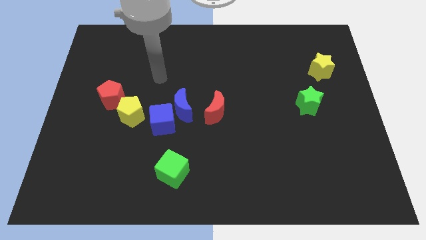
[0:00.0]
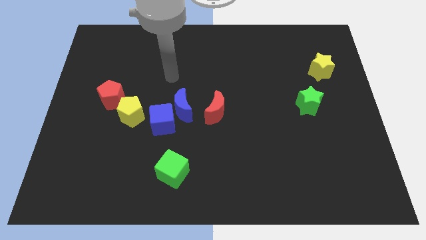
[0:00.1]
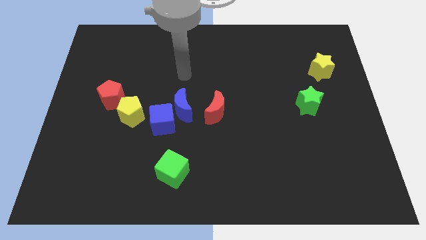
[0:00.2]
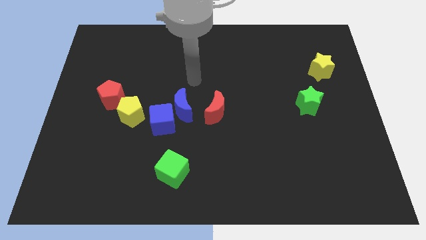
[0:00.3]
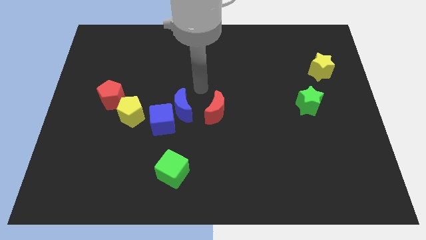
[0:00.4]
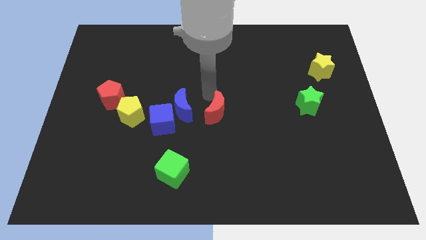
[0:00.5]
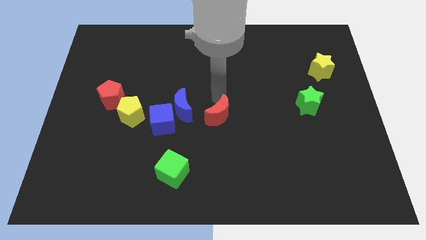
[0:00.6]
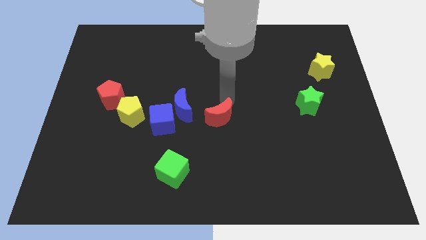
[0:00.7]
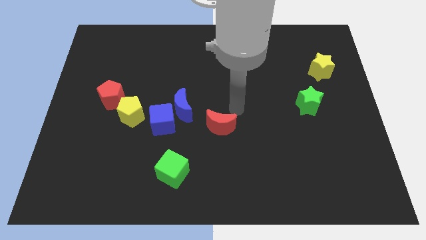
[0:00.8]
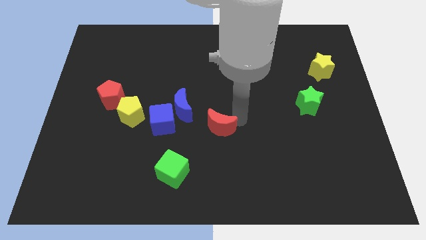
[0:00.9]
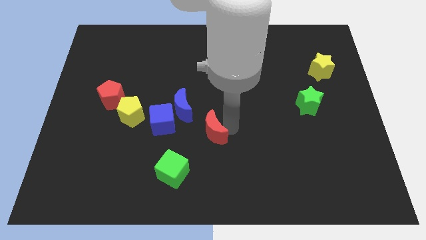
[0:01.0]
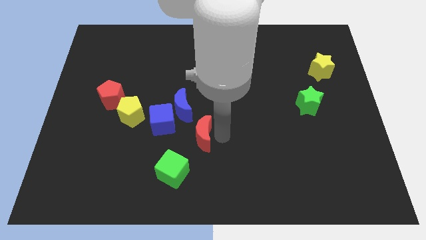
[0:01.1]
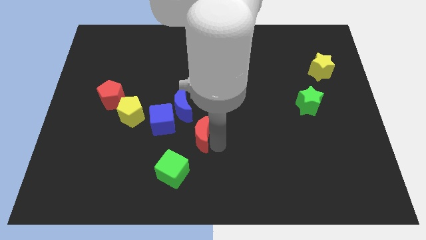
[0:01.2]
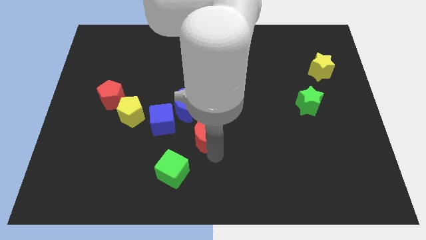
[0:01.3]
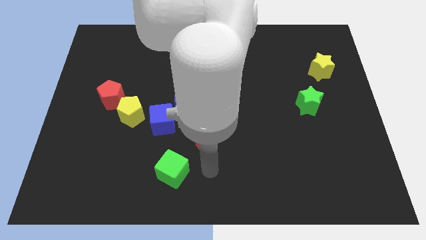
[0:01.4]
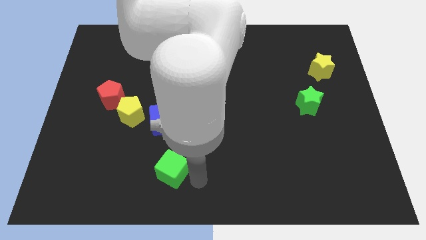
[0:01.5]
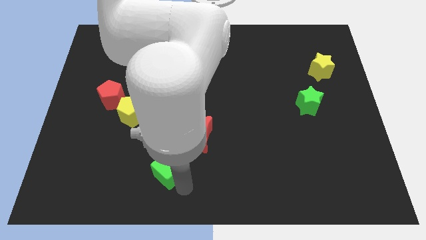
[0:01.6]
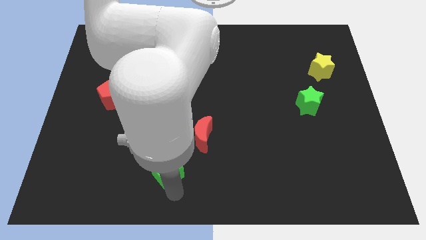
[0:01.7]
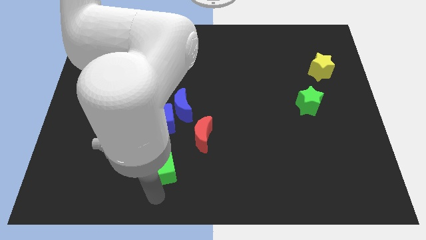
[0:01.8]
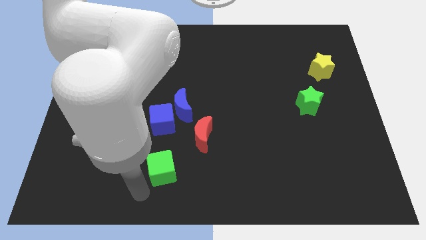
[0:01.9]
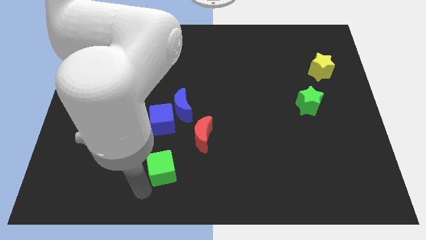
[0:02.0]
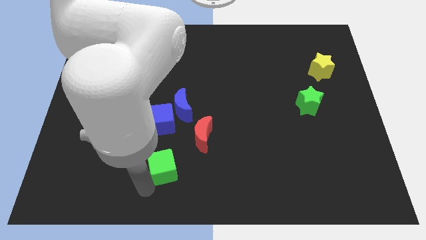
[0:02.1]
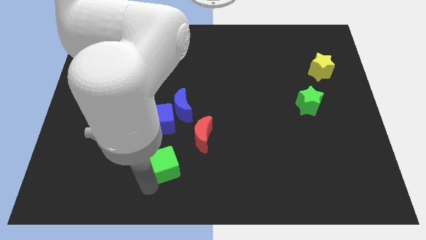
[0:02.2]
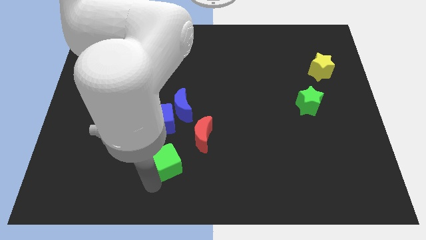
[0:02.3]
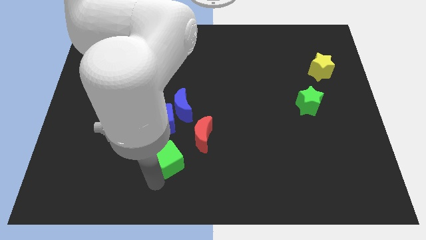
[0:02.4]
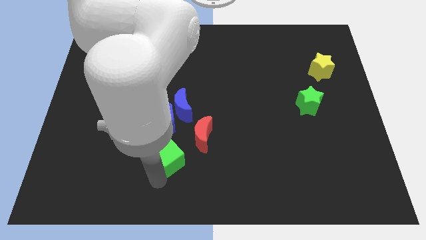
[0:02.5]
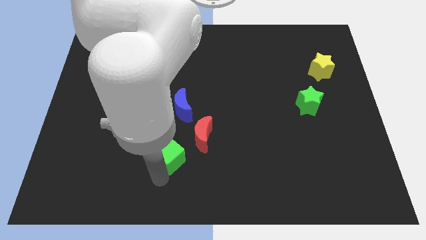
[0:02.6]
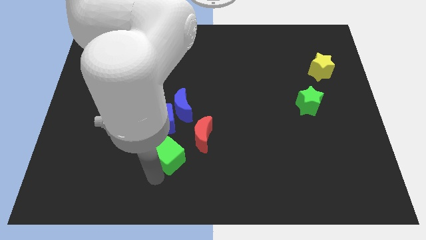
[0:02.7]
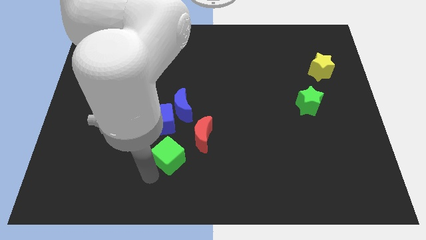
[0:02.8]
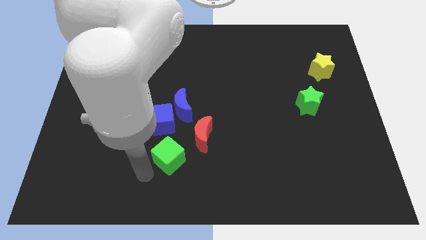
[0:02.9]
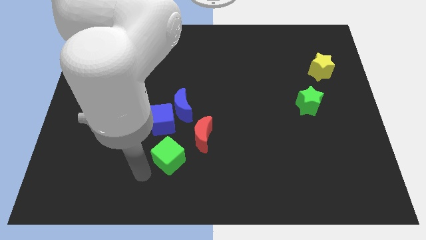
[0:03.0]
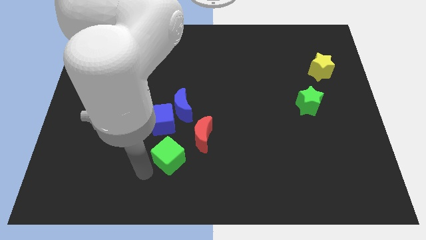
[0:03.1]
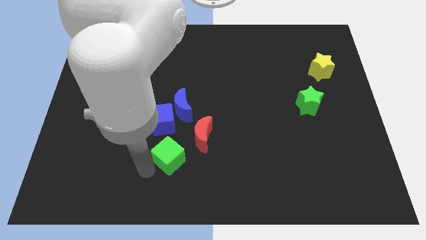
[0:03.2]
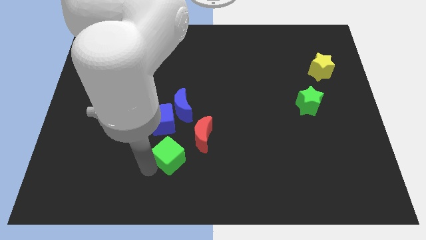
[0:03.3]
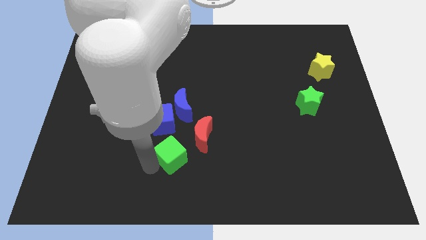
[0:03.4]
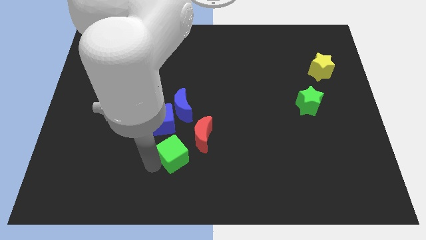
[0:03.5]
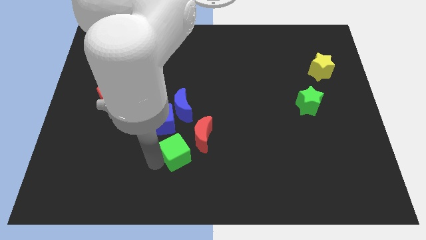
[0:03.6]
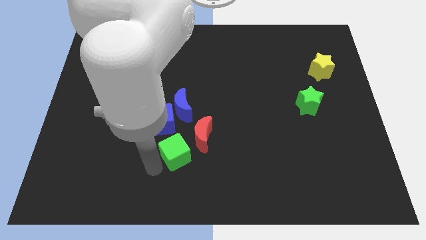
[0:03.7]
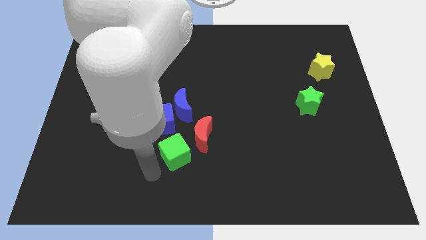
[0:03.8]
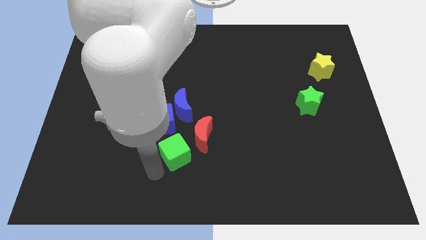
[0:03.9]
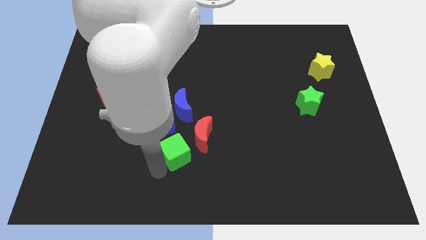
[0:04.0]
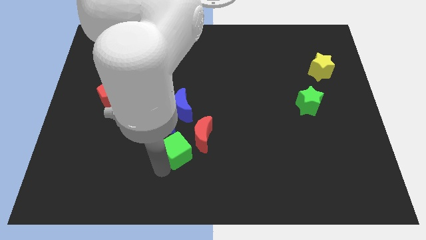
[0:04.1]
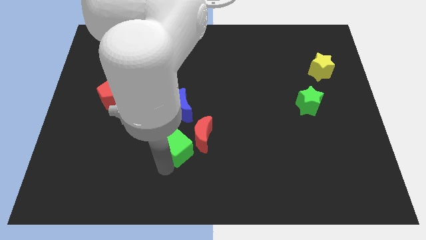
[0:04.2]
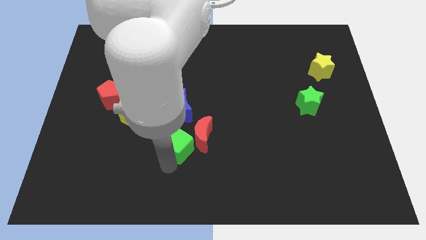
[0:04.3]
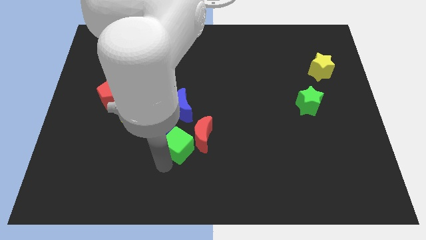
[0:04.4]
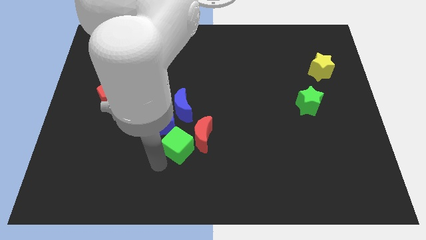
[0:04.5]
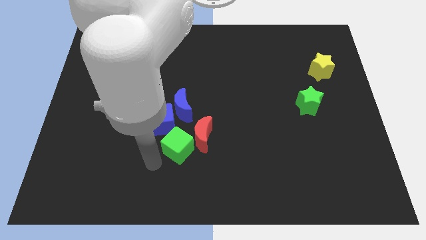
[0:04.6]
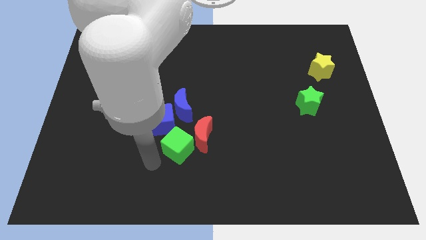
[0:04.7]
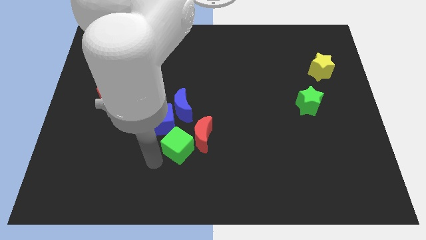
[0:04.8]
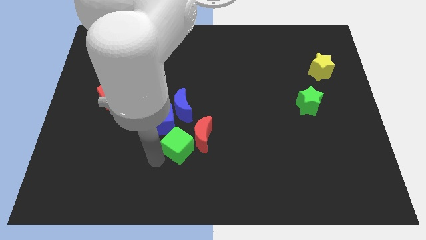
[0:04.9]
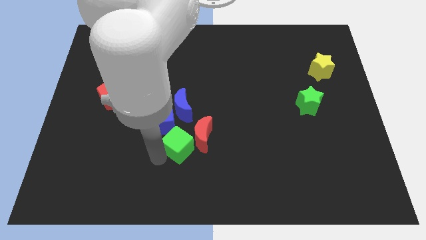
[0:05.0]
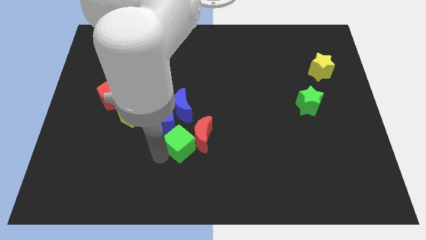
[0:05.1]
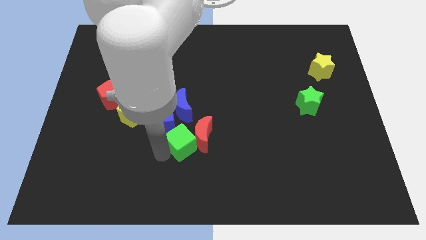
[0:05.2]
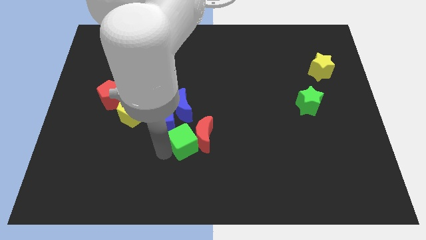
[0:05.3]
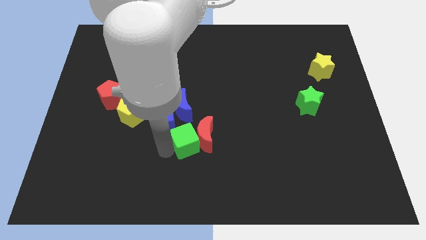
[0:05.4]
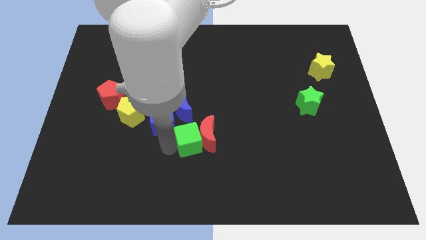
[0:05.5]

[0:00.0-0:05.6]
push the green cube a little up and right

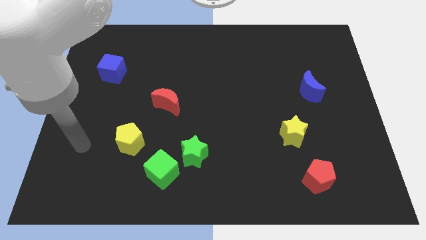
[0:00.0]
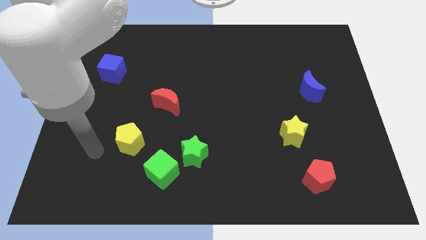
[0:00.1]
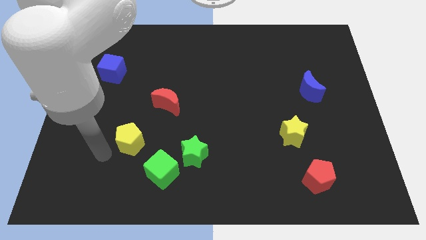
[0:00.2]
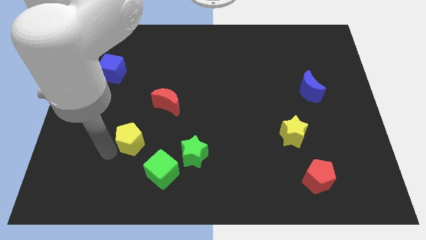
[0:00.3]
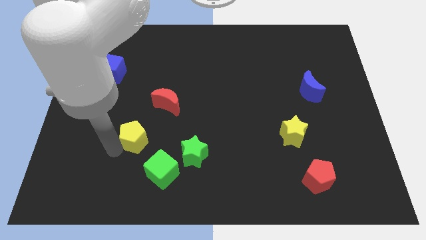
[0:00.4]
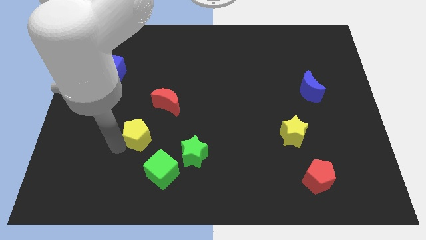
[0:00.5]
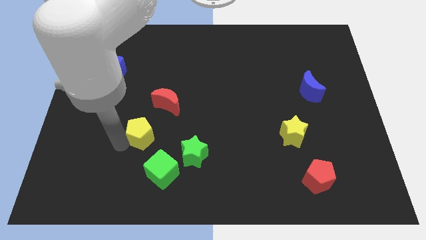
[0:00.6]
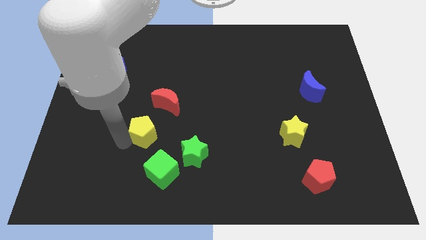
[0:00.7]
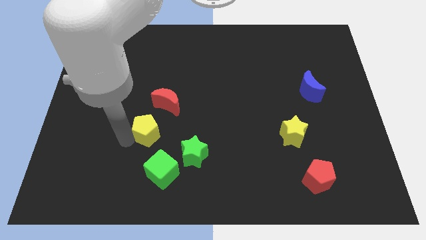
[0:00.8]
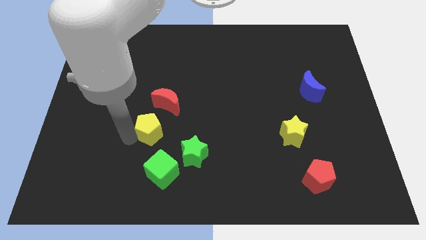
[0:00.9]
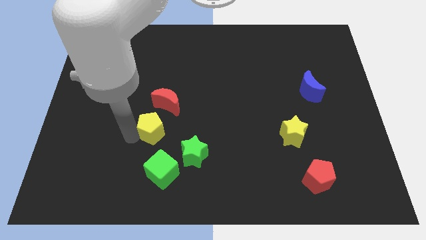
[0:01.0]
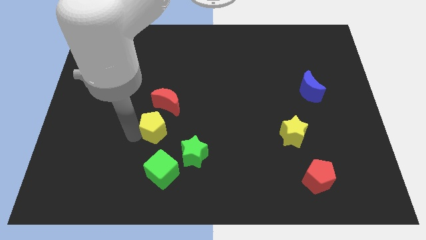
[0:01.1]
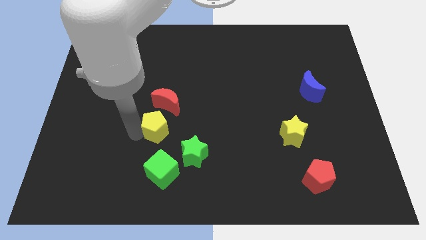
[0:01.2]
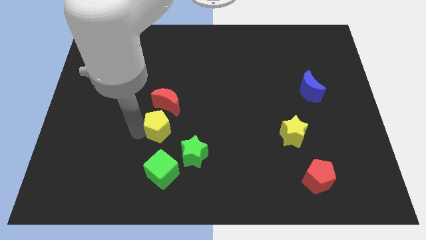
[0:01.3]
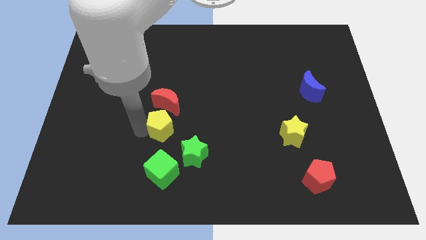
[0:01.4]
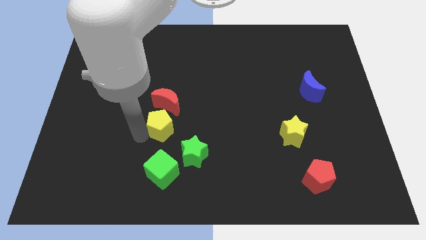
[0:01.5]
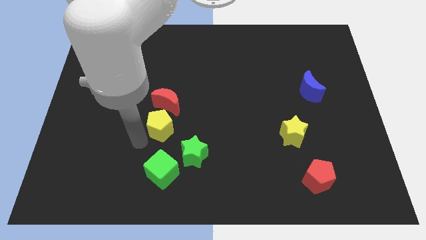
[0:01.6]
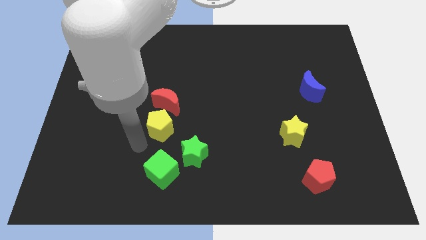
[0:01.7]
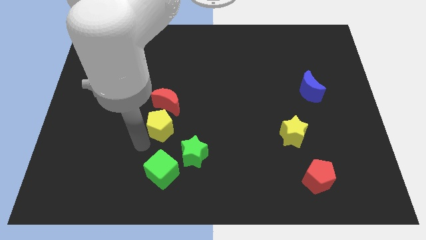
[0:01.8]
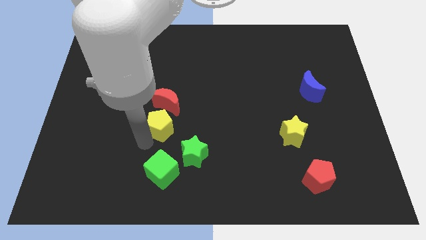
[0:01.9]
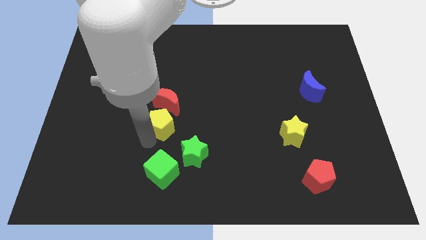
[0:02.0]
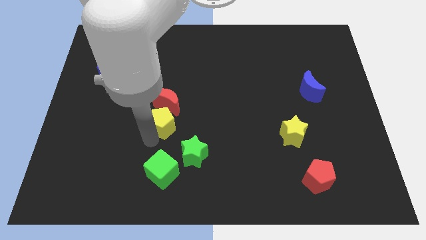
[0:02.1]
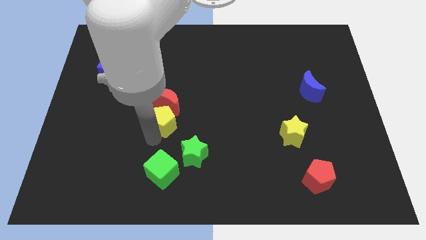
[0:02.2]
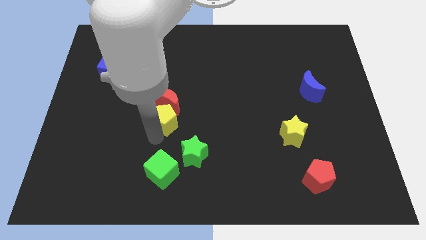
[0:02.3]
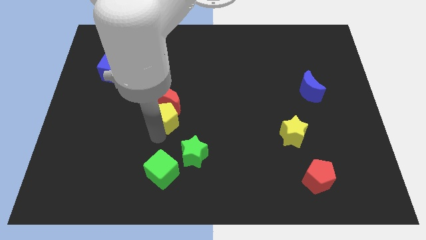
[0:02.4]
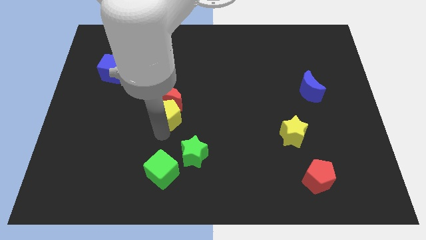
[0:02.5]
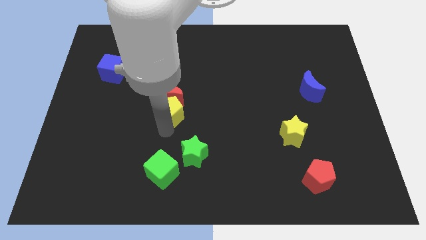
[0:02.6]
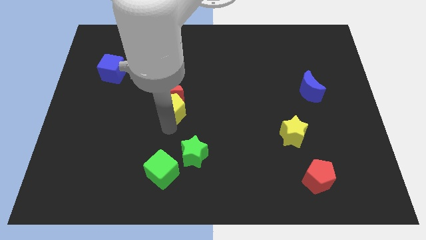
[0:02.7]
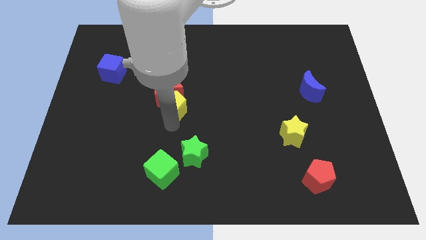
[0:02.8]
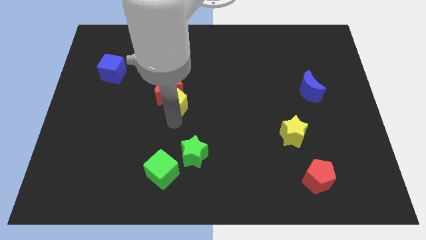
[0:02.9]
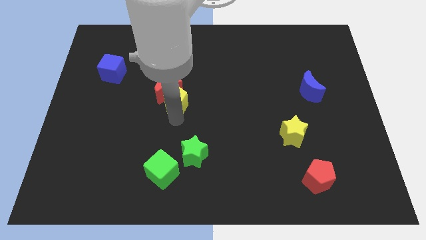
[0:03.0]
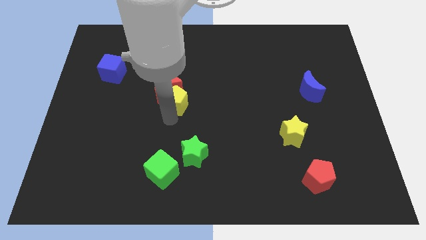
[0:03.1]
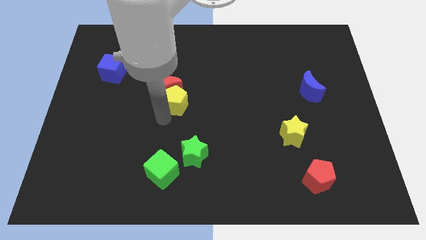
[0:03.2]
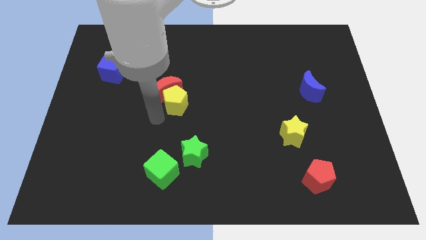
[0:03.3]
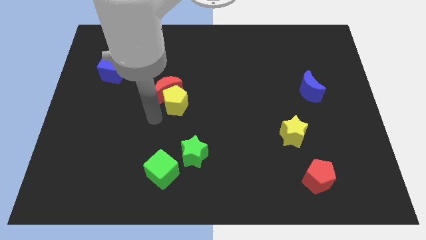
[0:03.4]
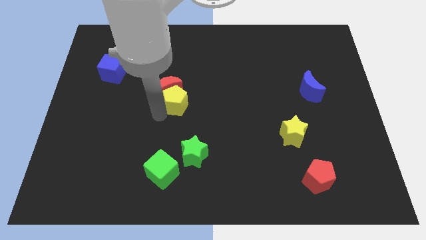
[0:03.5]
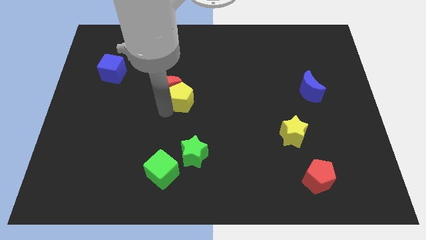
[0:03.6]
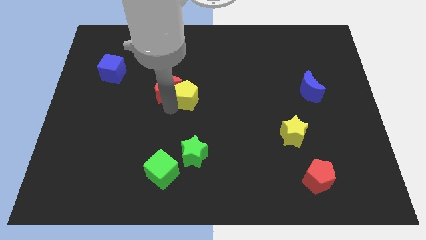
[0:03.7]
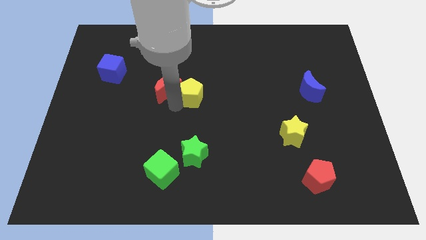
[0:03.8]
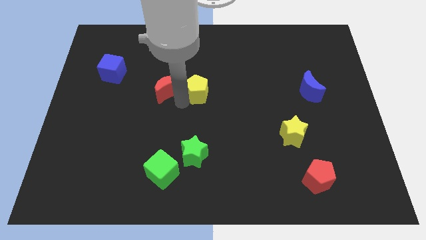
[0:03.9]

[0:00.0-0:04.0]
move the yellow pentagon upwards and to the right
